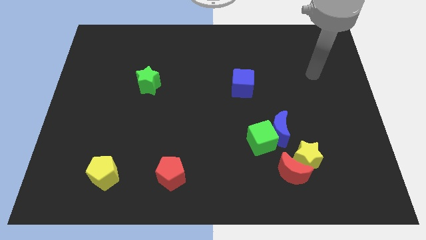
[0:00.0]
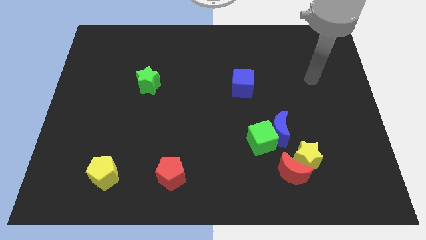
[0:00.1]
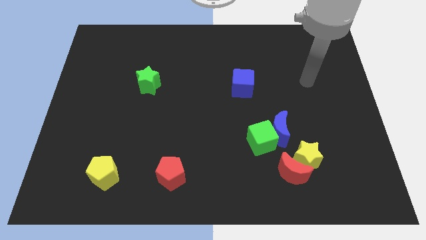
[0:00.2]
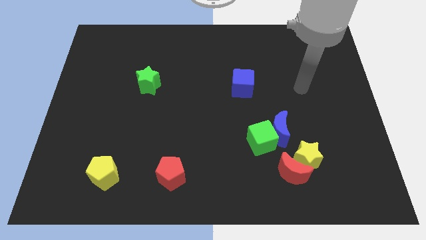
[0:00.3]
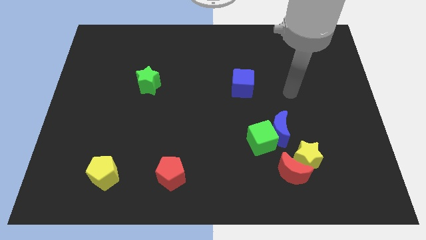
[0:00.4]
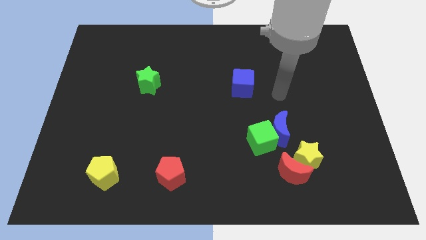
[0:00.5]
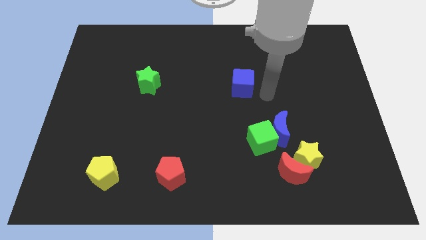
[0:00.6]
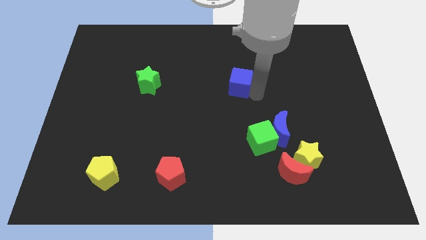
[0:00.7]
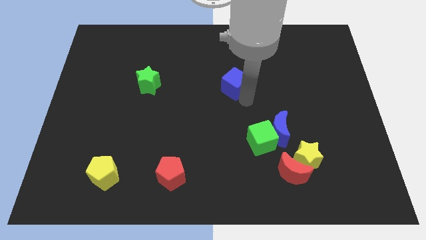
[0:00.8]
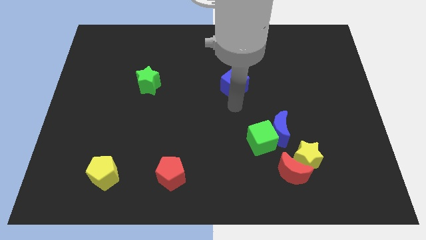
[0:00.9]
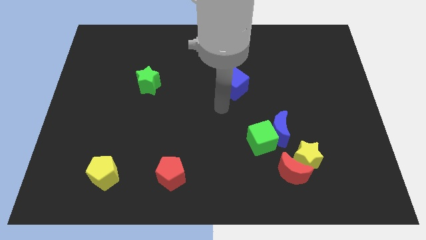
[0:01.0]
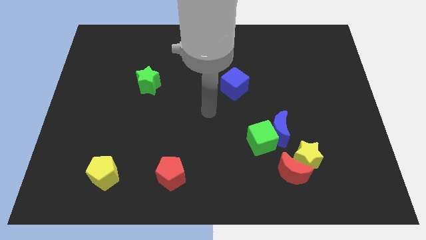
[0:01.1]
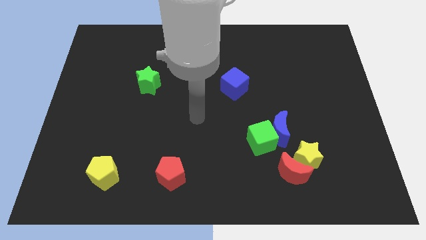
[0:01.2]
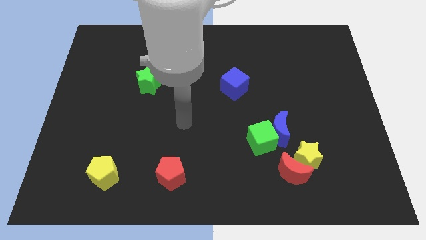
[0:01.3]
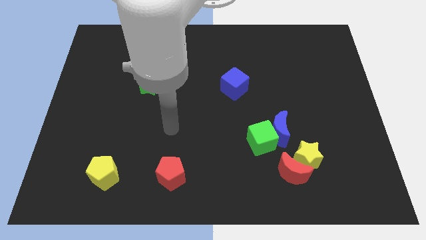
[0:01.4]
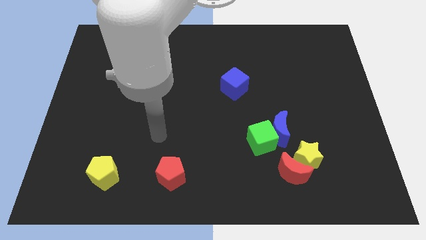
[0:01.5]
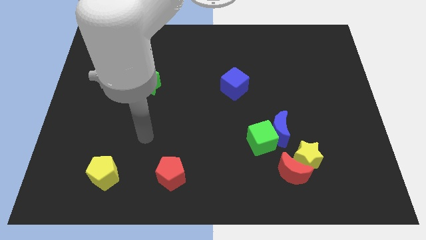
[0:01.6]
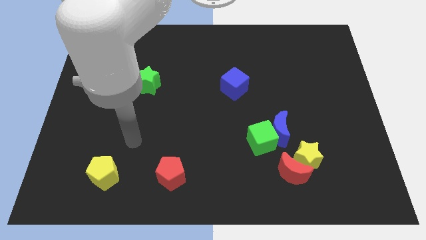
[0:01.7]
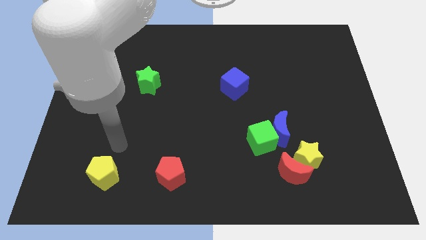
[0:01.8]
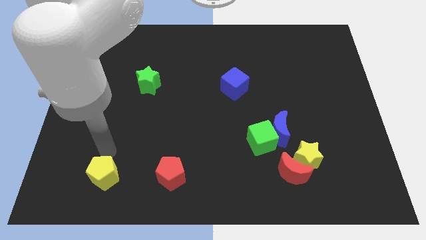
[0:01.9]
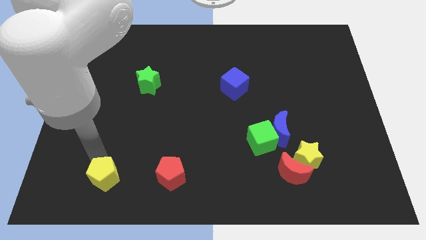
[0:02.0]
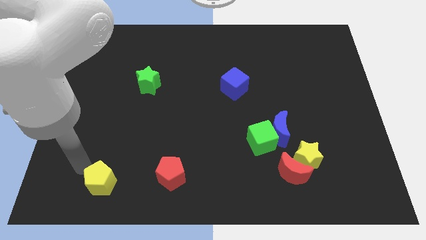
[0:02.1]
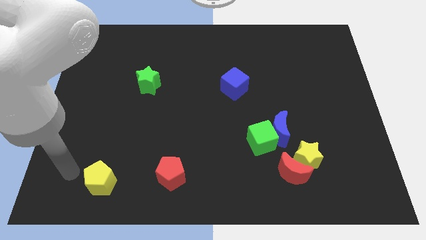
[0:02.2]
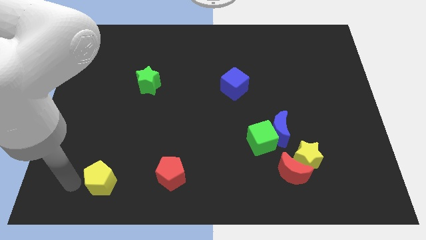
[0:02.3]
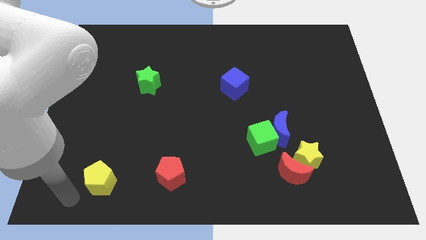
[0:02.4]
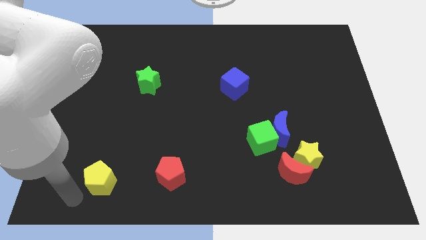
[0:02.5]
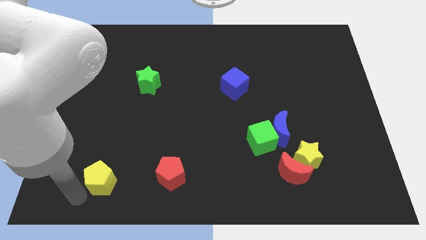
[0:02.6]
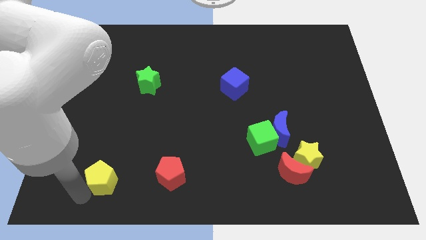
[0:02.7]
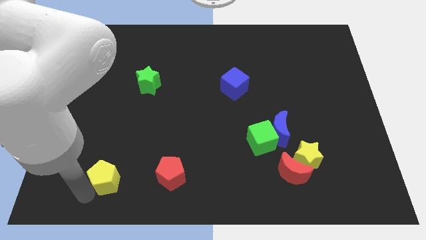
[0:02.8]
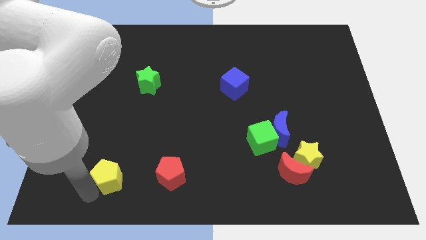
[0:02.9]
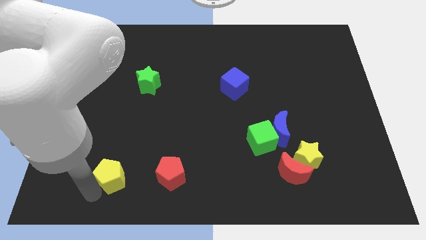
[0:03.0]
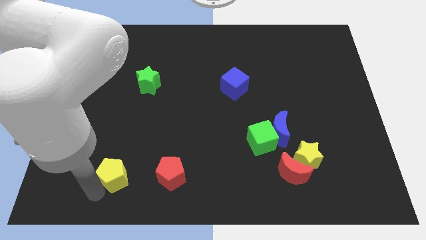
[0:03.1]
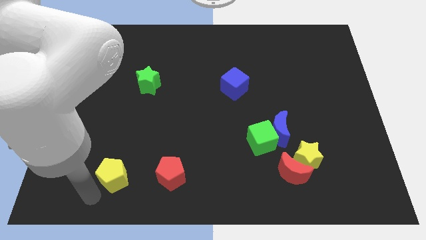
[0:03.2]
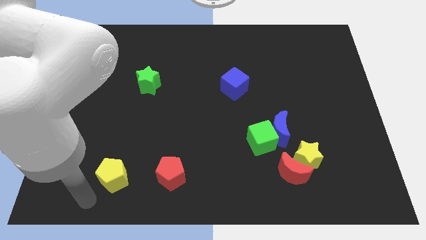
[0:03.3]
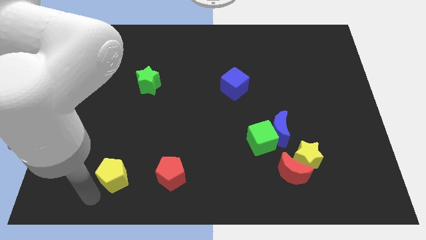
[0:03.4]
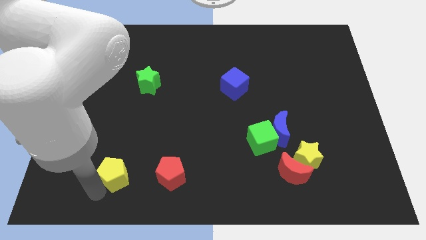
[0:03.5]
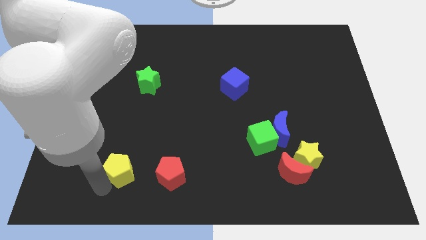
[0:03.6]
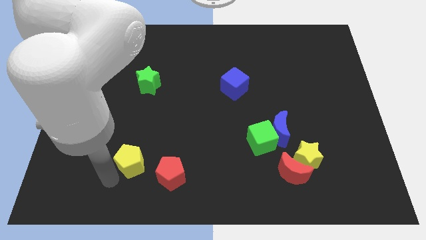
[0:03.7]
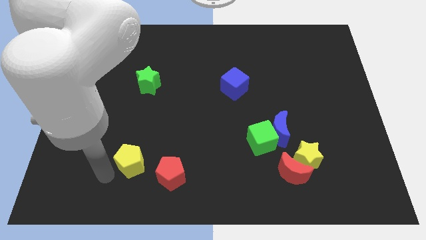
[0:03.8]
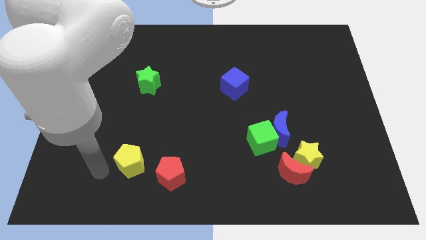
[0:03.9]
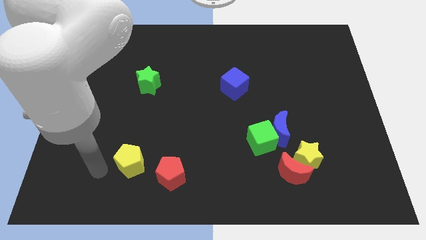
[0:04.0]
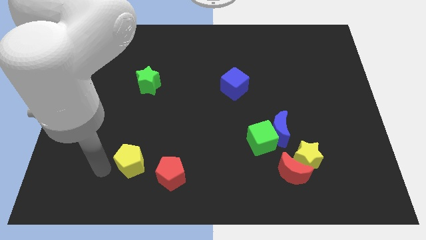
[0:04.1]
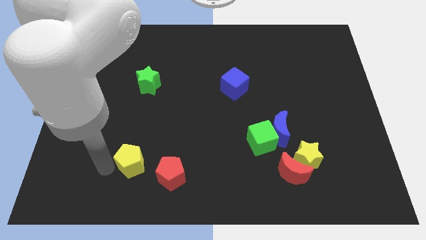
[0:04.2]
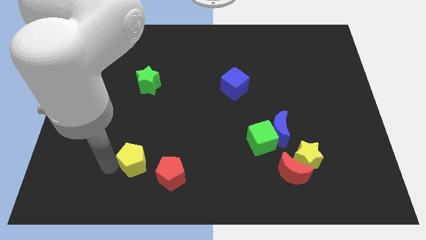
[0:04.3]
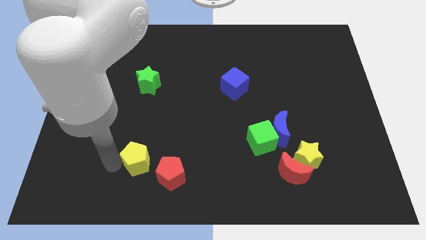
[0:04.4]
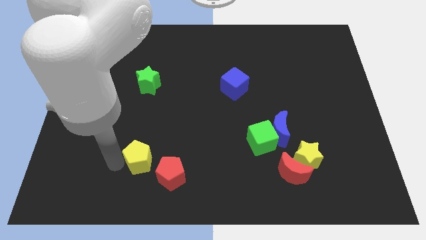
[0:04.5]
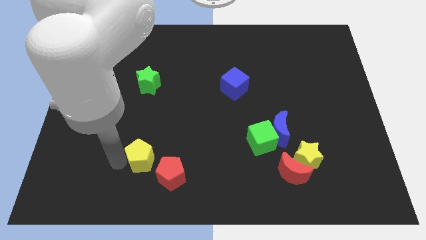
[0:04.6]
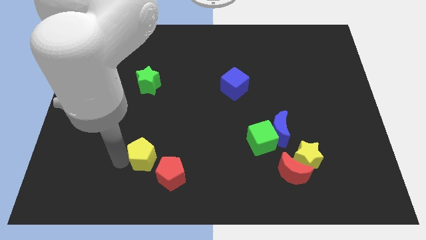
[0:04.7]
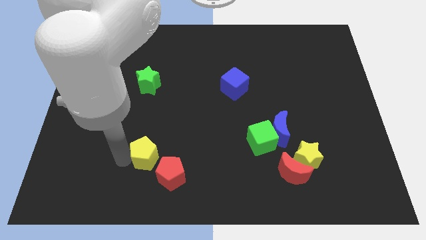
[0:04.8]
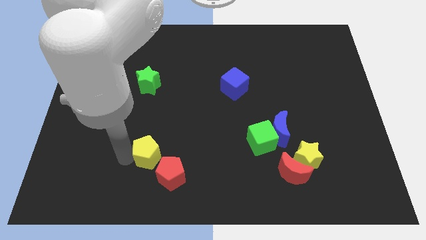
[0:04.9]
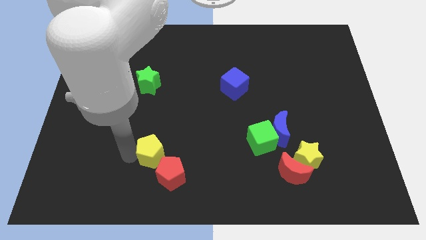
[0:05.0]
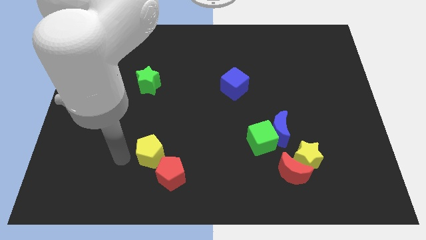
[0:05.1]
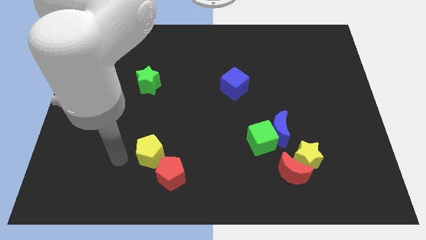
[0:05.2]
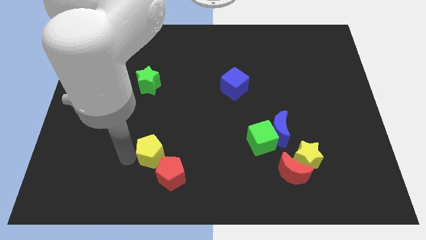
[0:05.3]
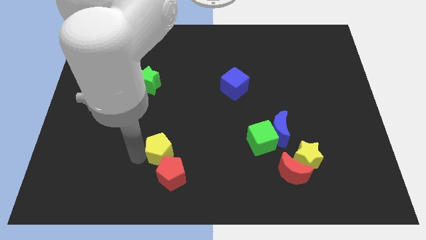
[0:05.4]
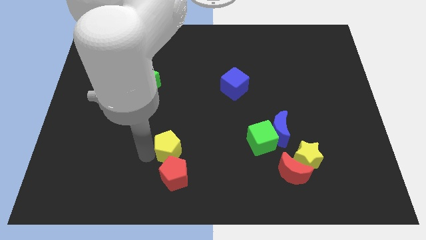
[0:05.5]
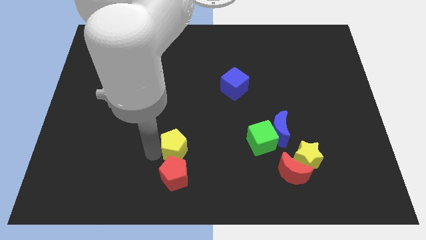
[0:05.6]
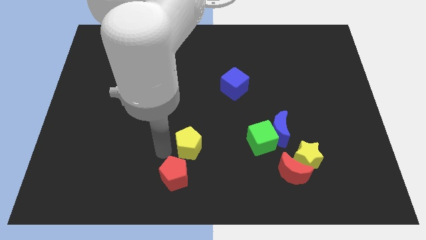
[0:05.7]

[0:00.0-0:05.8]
push the yellow pentagon to the left side of the green cube

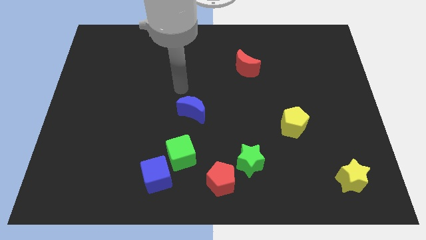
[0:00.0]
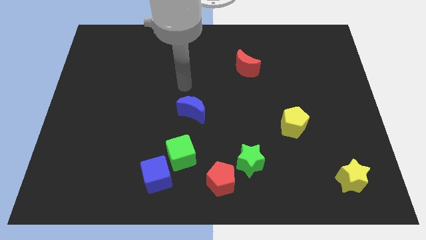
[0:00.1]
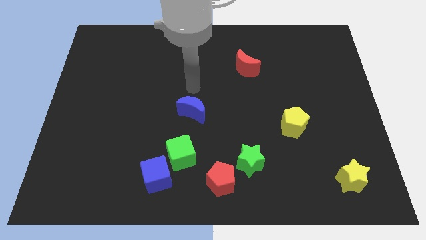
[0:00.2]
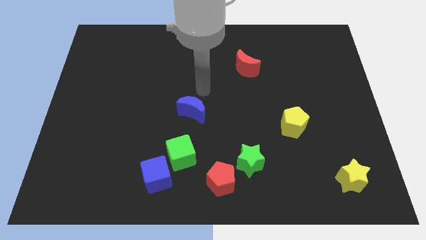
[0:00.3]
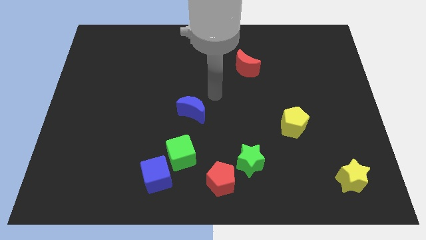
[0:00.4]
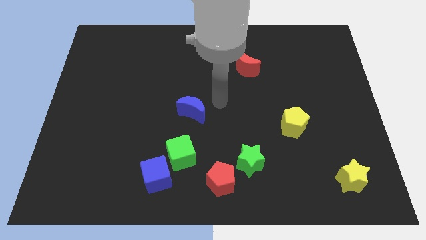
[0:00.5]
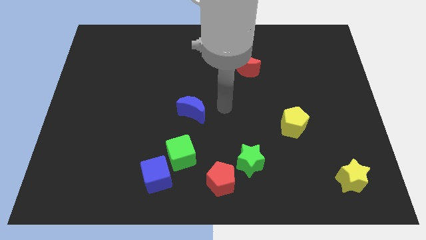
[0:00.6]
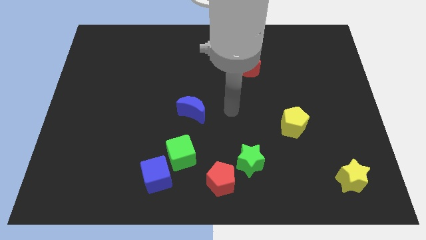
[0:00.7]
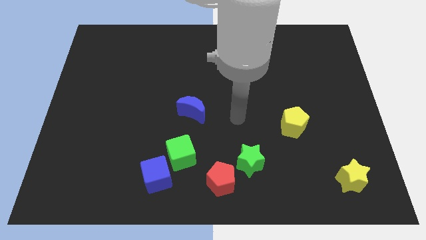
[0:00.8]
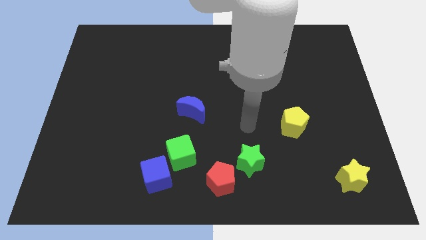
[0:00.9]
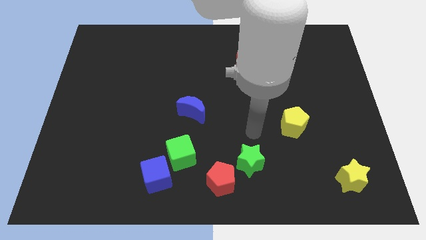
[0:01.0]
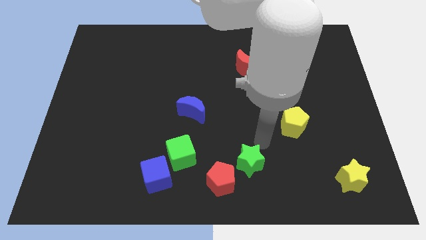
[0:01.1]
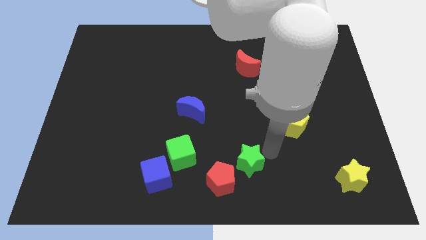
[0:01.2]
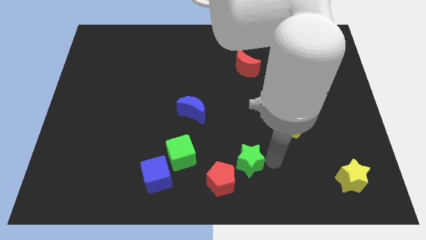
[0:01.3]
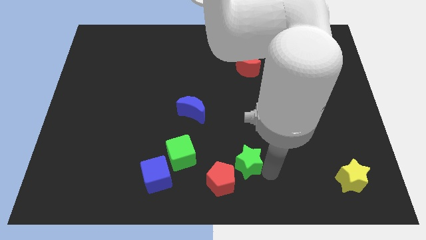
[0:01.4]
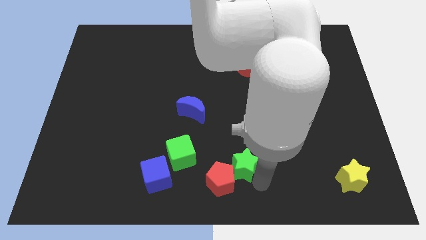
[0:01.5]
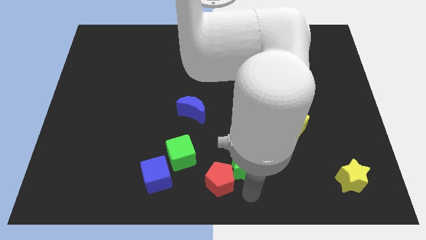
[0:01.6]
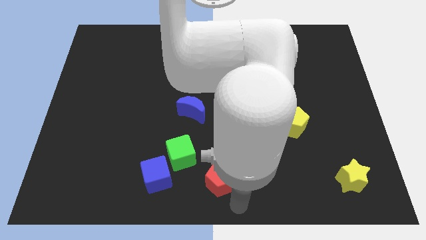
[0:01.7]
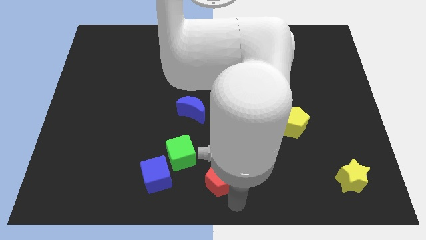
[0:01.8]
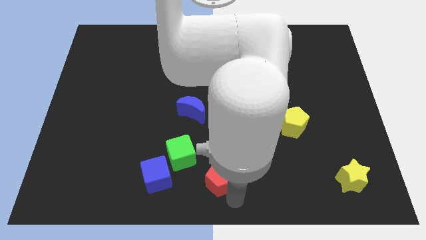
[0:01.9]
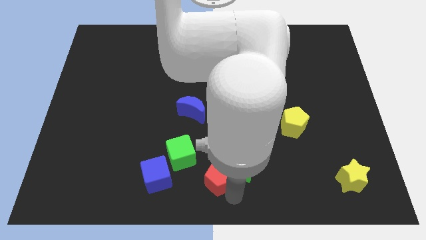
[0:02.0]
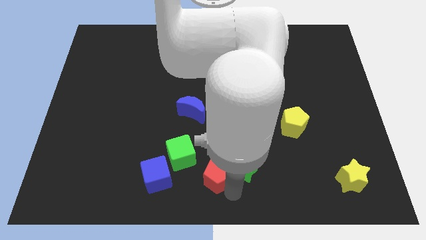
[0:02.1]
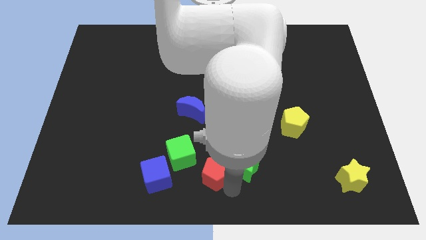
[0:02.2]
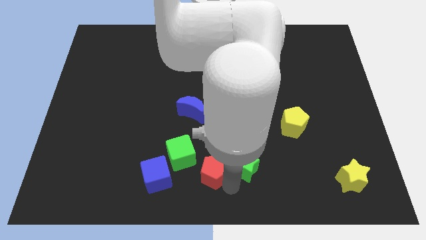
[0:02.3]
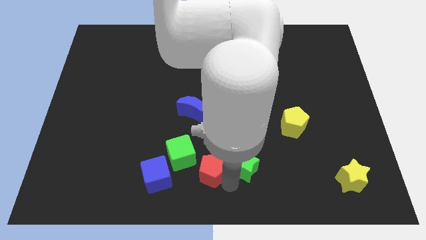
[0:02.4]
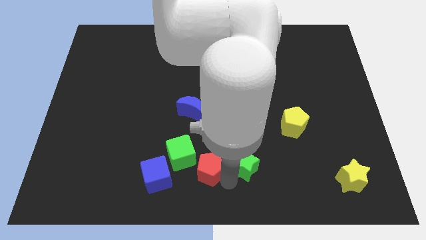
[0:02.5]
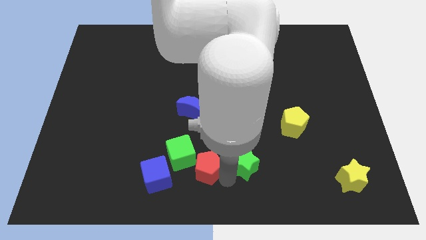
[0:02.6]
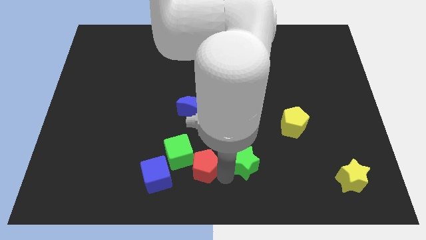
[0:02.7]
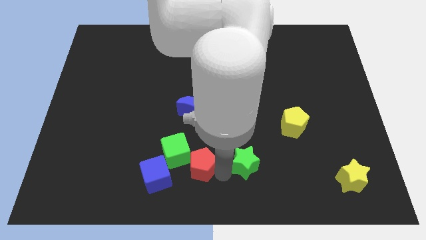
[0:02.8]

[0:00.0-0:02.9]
slide the red pentagon to the top right side of the blue cube
